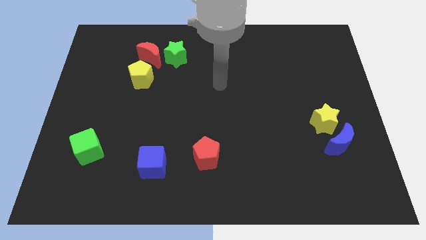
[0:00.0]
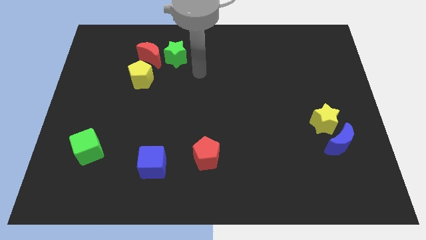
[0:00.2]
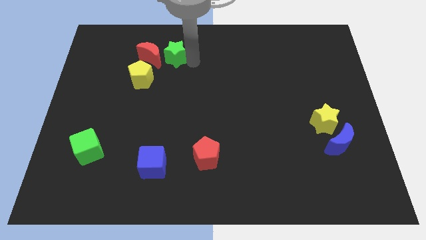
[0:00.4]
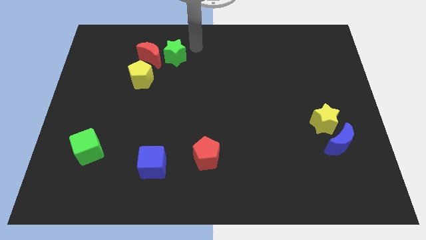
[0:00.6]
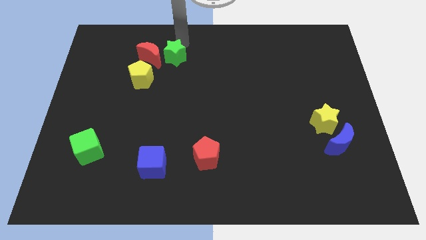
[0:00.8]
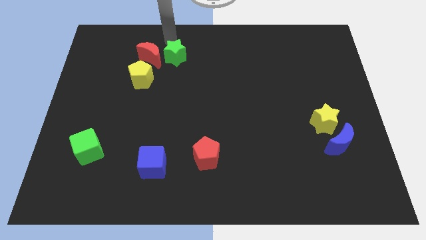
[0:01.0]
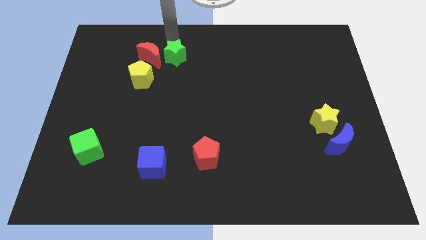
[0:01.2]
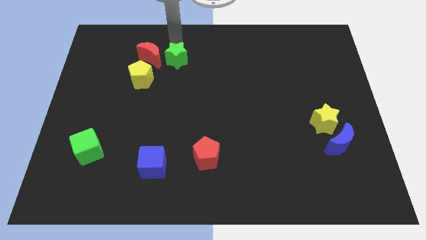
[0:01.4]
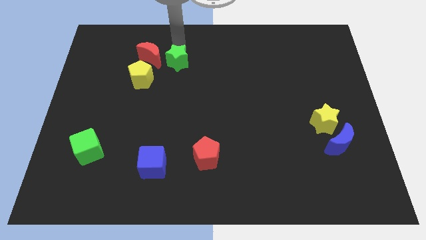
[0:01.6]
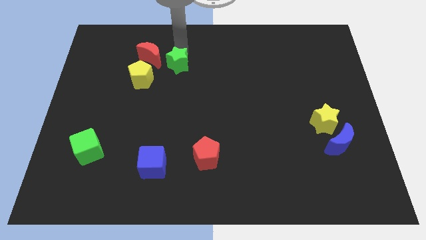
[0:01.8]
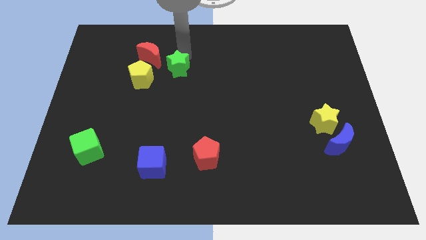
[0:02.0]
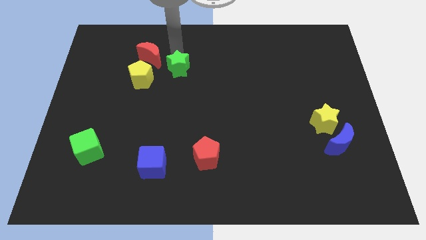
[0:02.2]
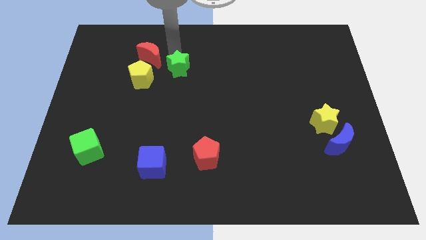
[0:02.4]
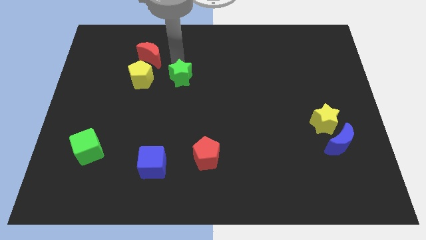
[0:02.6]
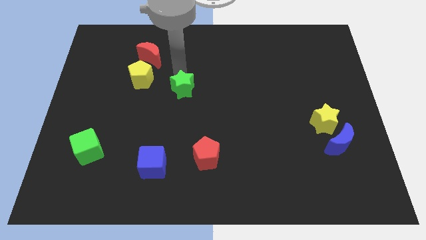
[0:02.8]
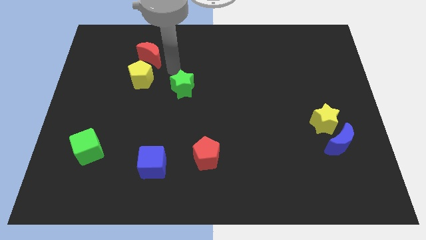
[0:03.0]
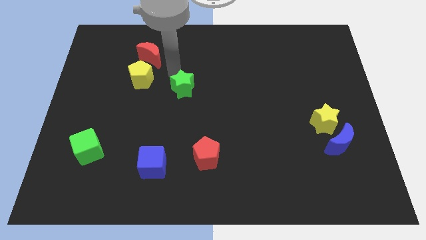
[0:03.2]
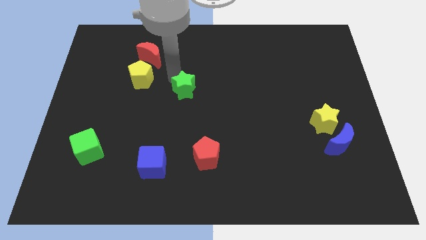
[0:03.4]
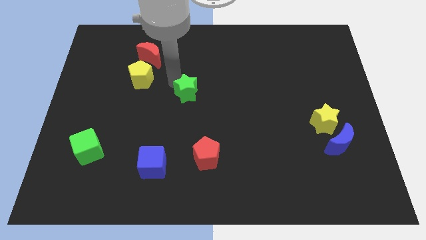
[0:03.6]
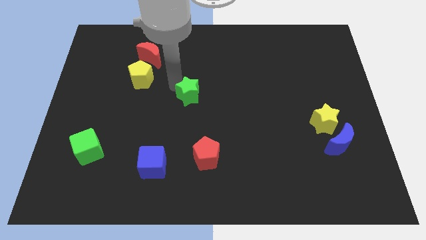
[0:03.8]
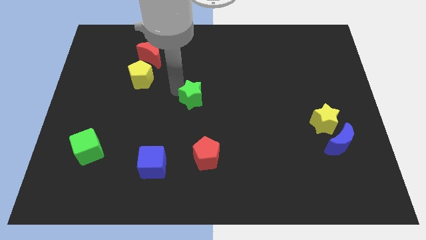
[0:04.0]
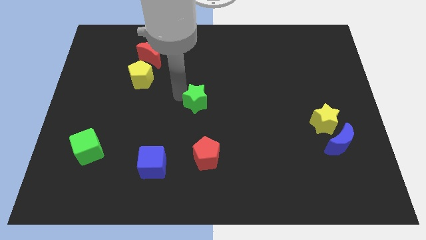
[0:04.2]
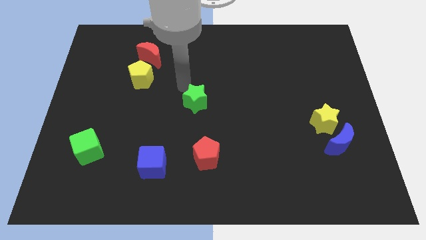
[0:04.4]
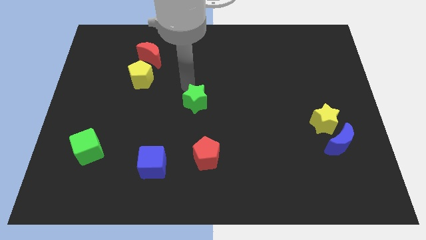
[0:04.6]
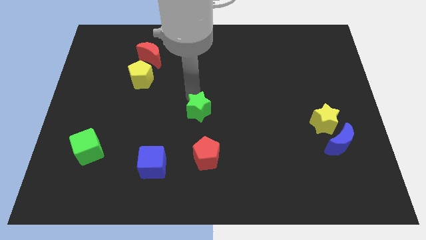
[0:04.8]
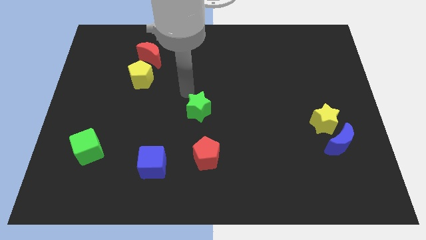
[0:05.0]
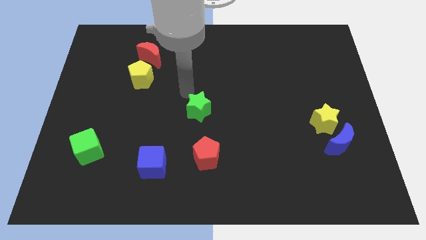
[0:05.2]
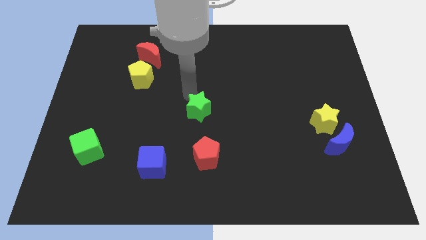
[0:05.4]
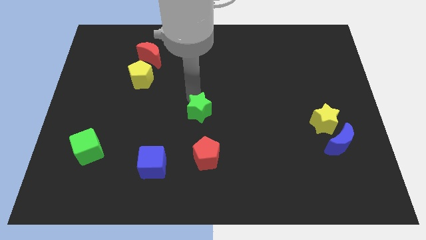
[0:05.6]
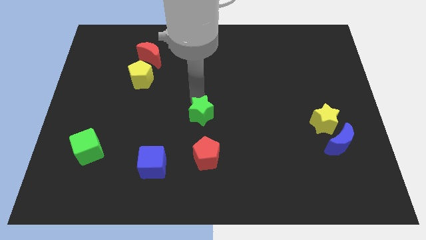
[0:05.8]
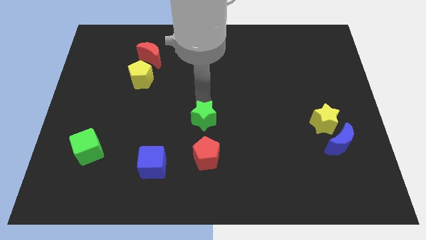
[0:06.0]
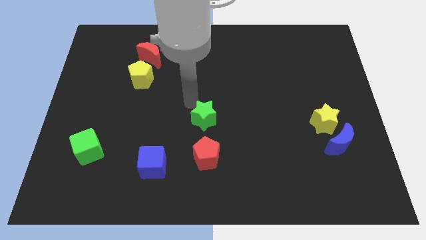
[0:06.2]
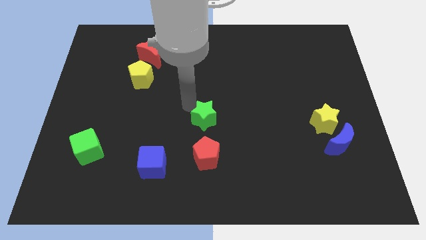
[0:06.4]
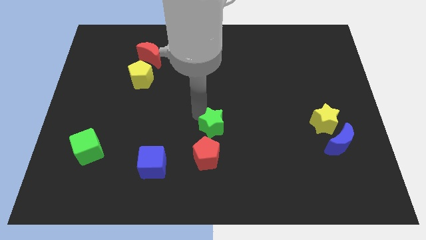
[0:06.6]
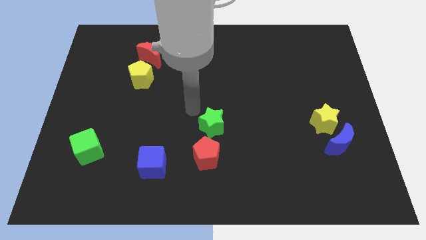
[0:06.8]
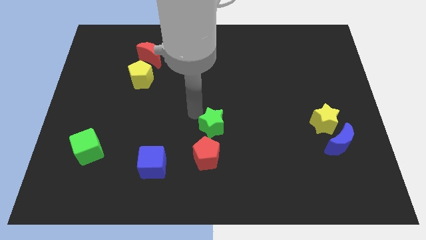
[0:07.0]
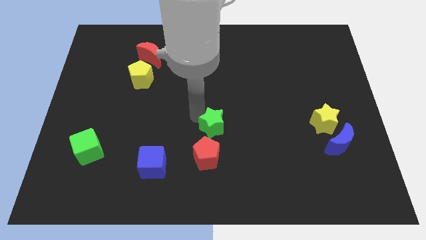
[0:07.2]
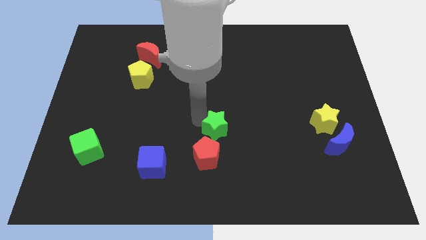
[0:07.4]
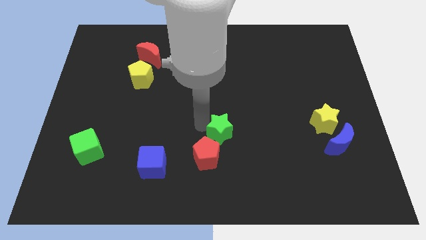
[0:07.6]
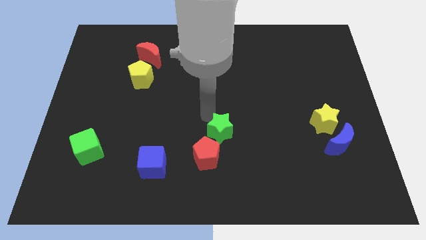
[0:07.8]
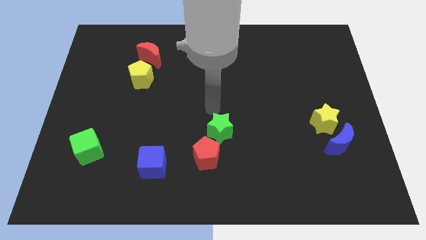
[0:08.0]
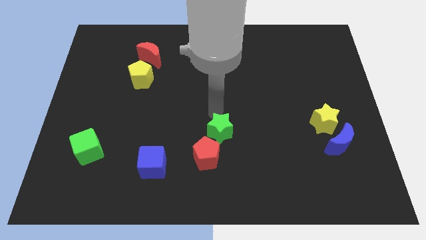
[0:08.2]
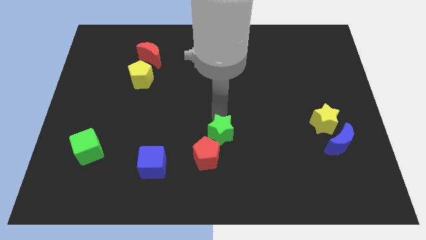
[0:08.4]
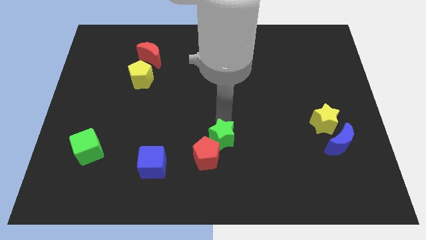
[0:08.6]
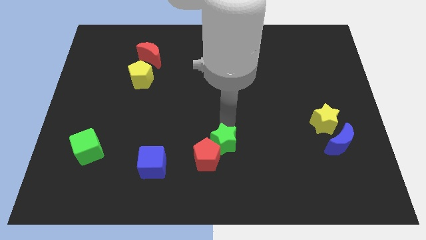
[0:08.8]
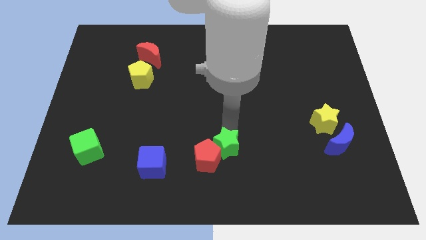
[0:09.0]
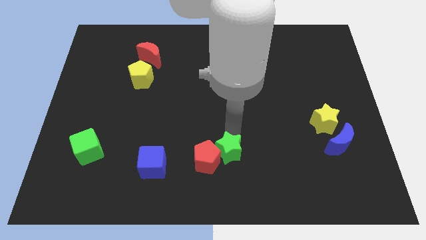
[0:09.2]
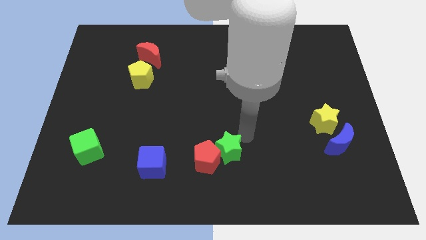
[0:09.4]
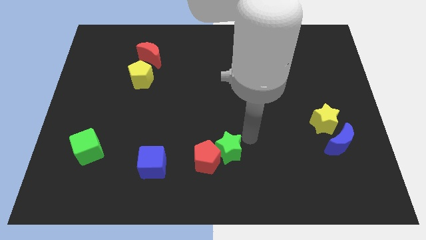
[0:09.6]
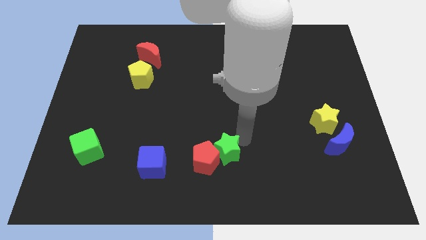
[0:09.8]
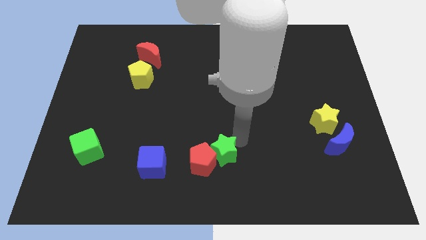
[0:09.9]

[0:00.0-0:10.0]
put the green star to the right side of the blue cube

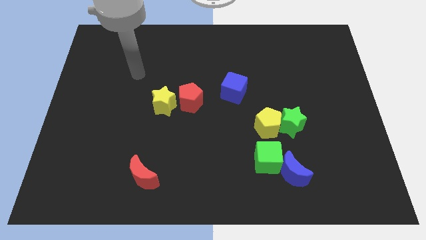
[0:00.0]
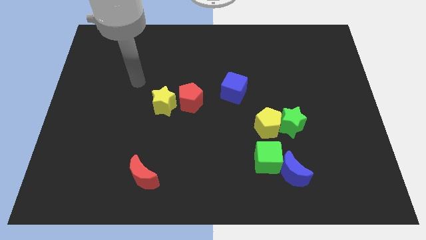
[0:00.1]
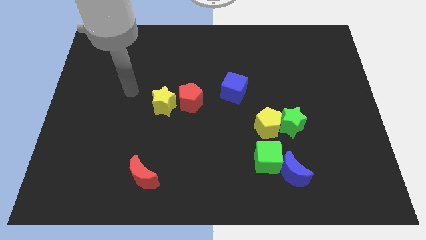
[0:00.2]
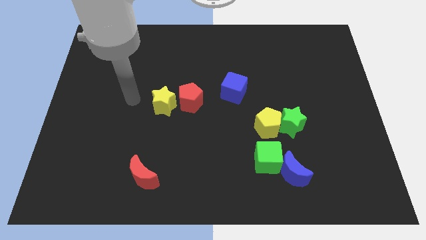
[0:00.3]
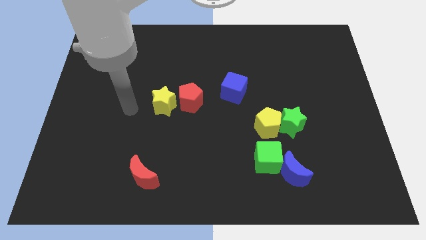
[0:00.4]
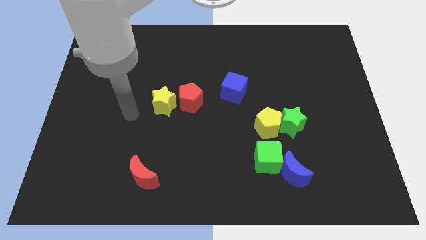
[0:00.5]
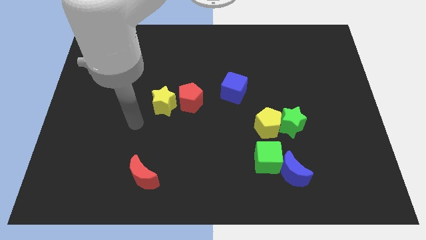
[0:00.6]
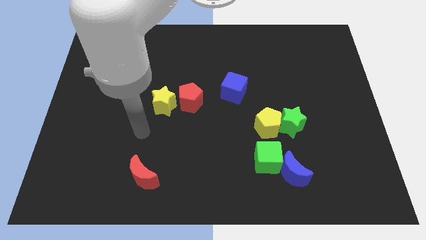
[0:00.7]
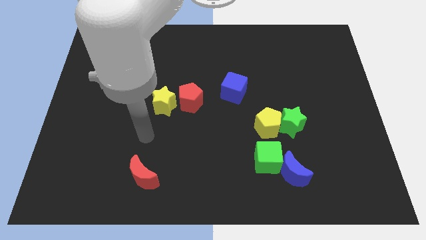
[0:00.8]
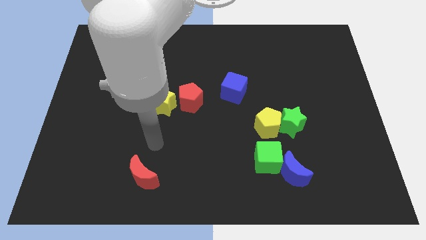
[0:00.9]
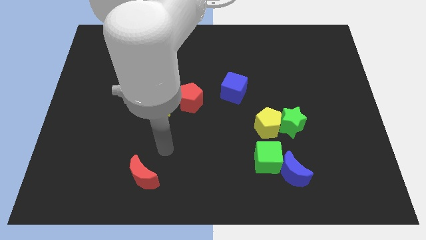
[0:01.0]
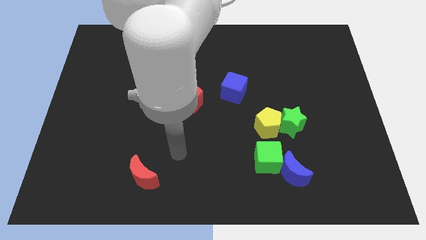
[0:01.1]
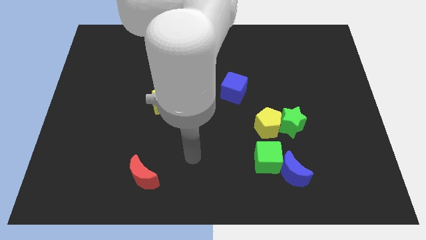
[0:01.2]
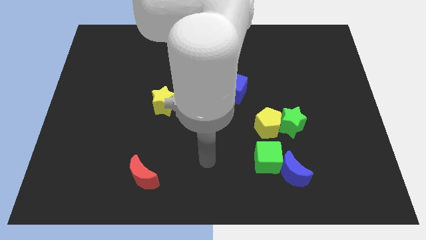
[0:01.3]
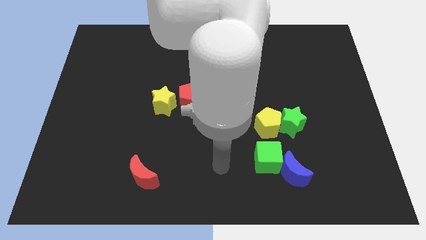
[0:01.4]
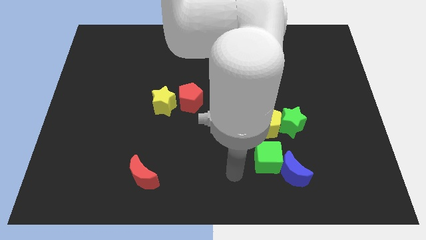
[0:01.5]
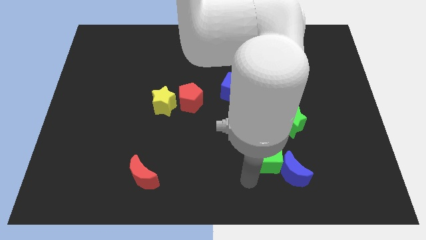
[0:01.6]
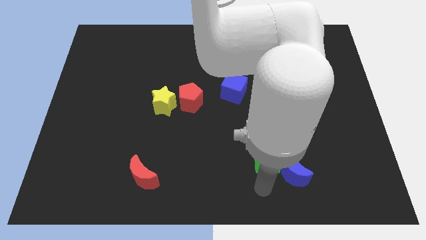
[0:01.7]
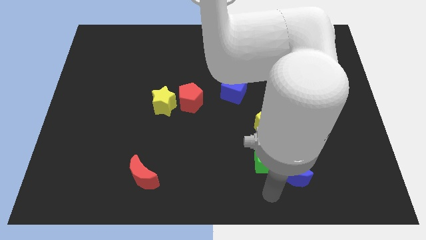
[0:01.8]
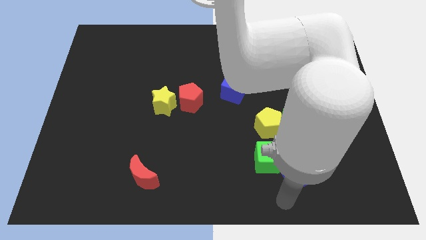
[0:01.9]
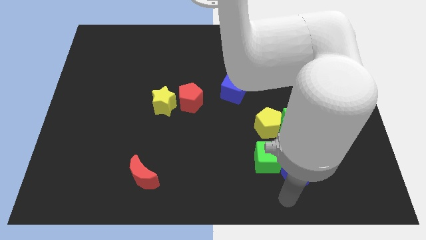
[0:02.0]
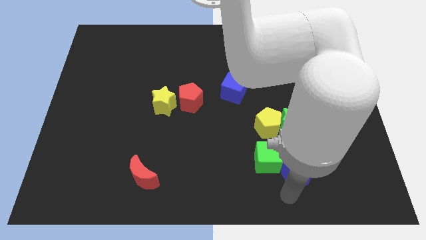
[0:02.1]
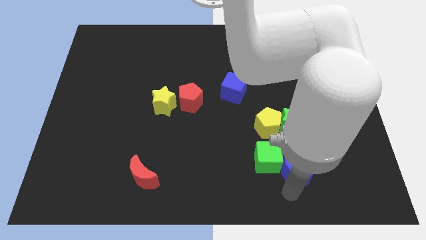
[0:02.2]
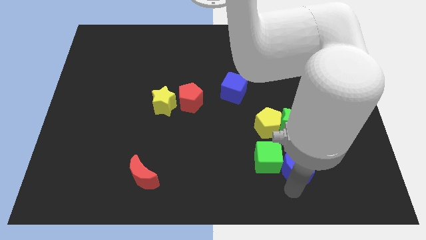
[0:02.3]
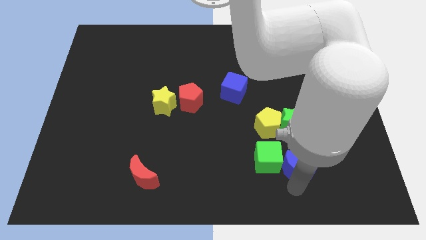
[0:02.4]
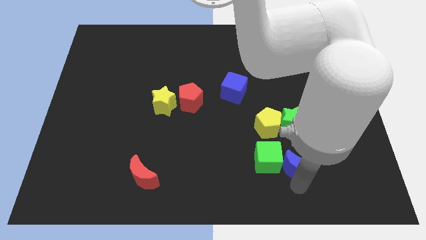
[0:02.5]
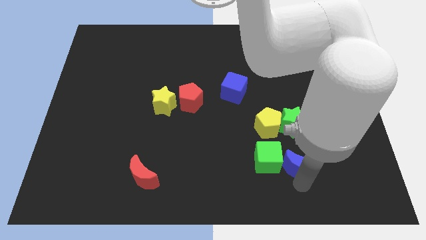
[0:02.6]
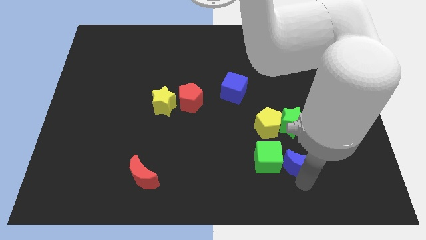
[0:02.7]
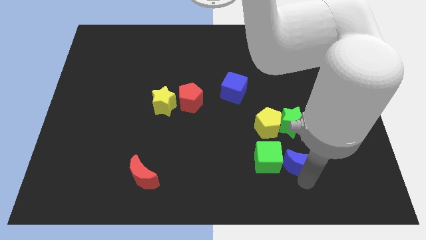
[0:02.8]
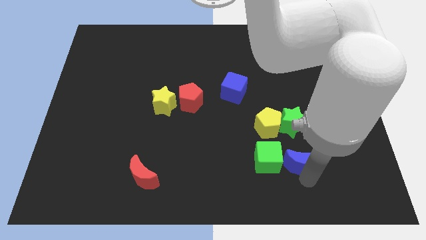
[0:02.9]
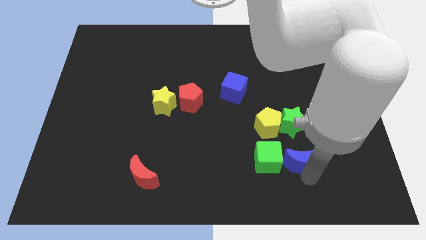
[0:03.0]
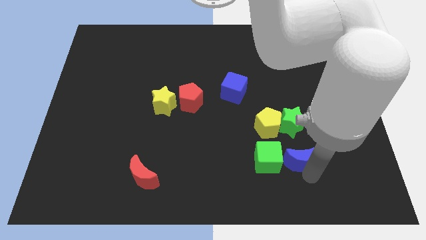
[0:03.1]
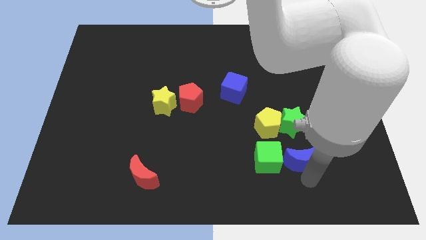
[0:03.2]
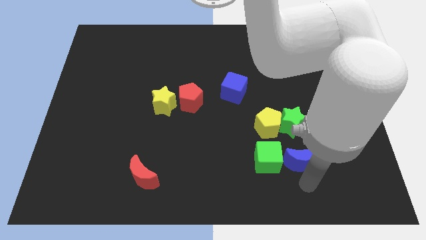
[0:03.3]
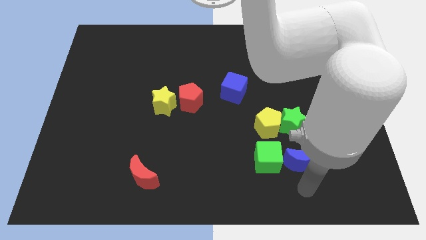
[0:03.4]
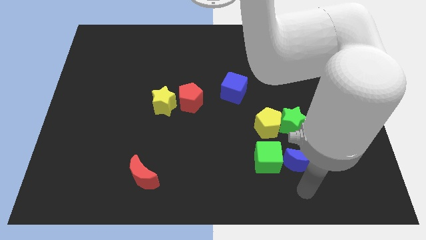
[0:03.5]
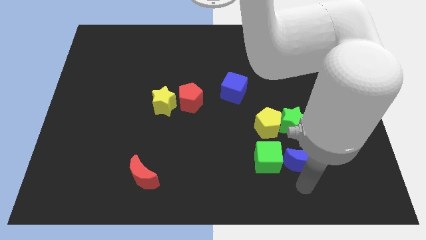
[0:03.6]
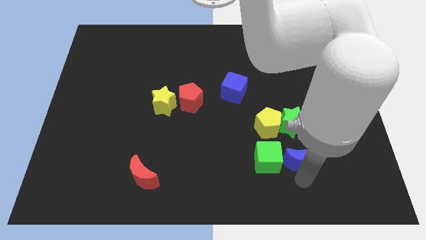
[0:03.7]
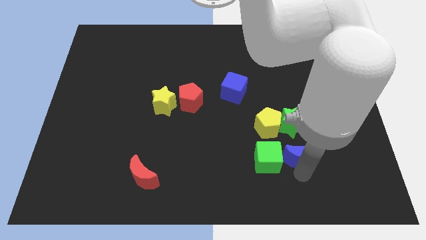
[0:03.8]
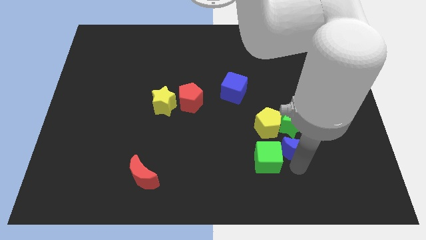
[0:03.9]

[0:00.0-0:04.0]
push the blue moon to the bottom right side of the green star
